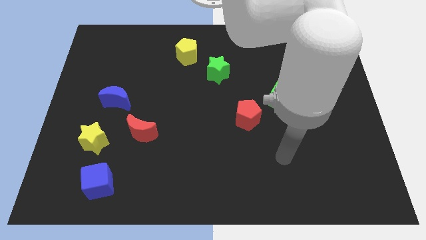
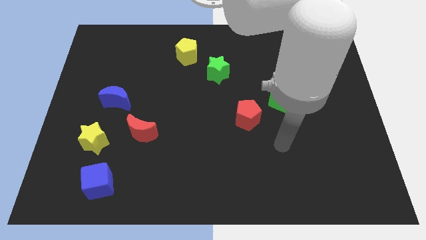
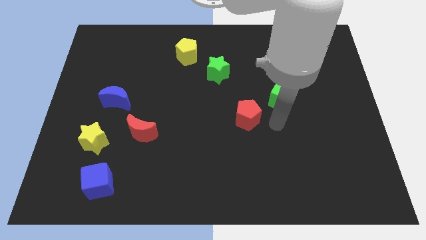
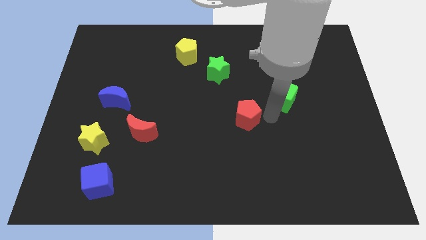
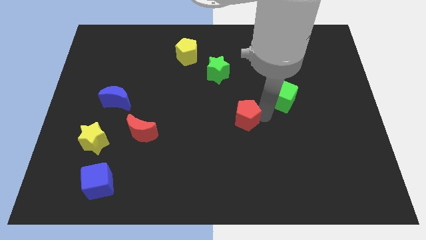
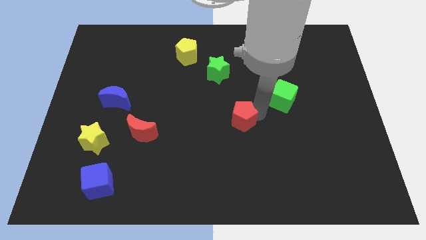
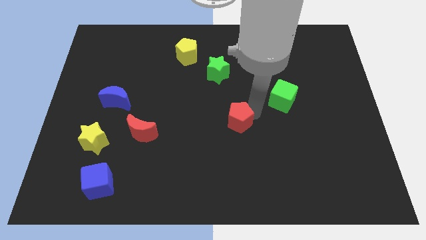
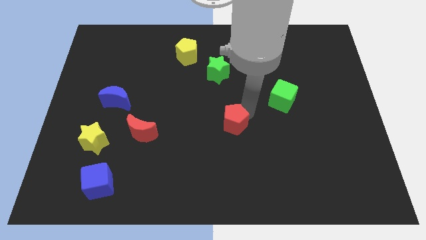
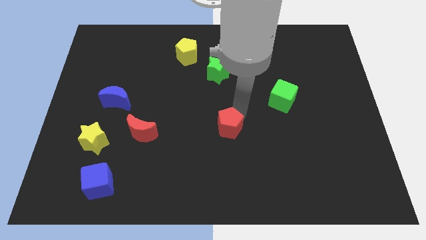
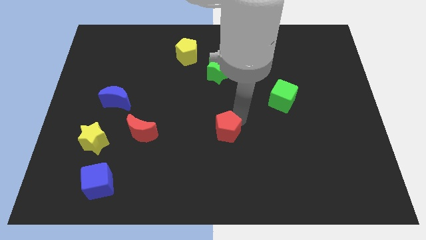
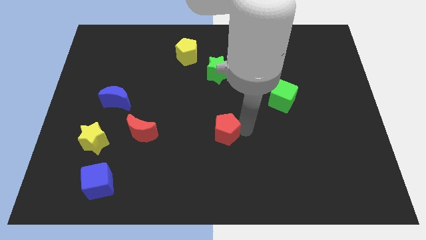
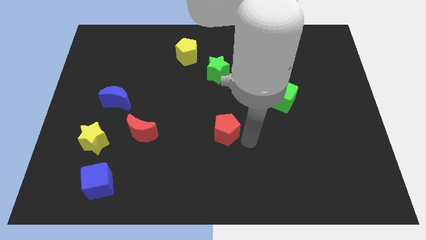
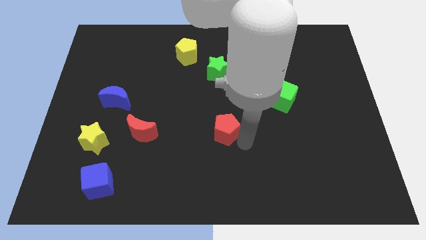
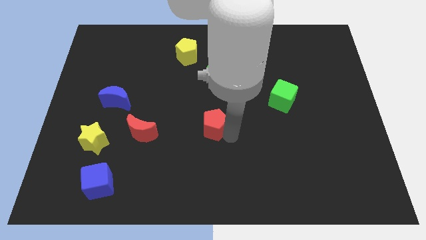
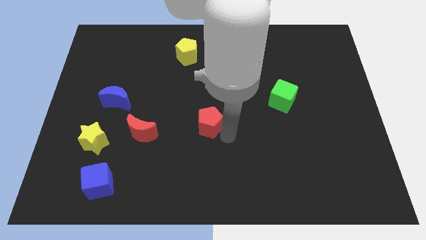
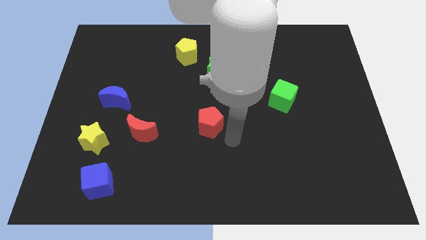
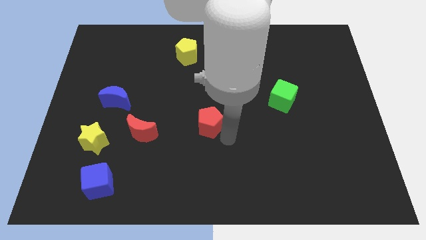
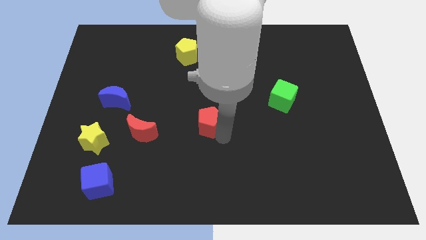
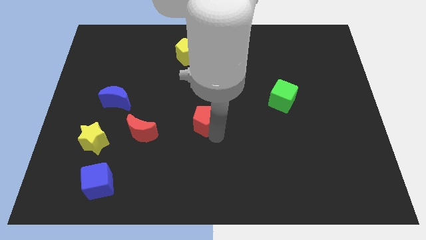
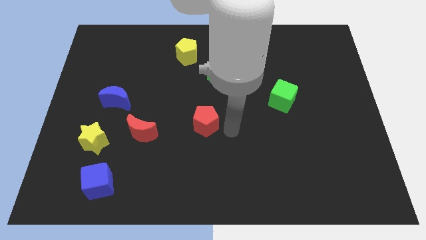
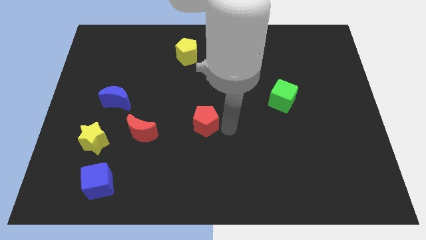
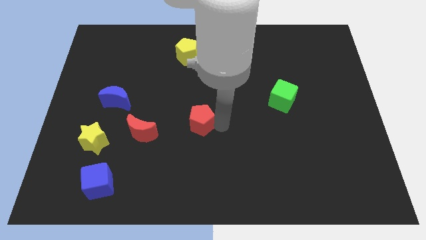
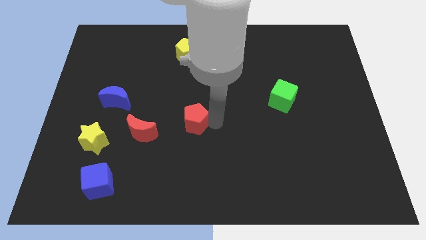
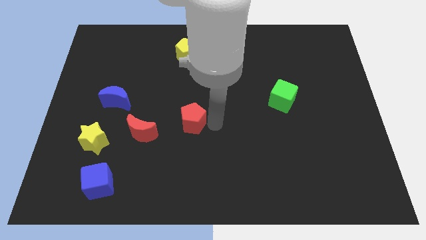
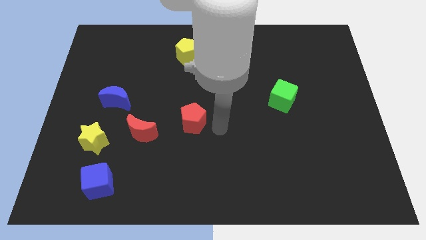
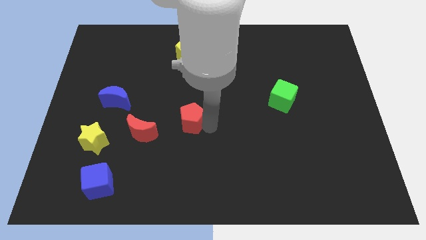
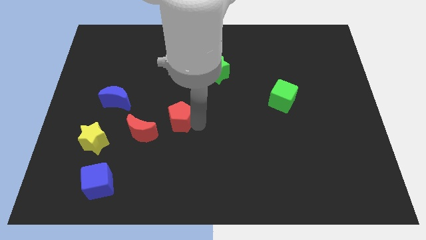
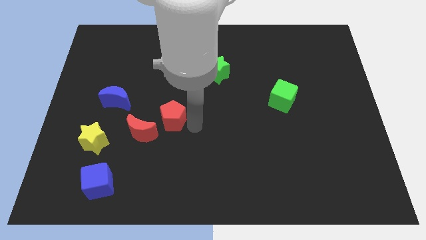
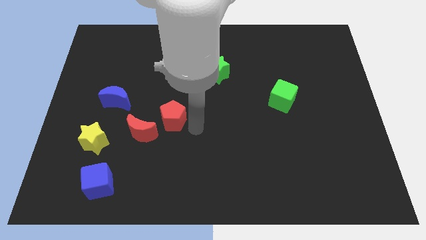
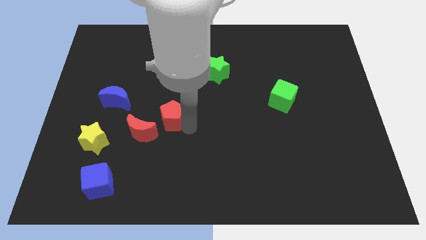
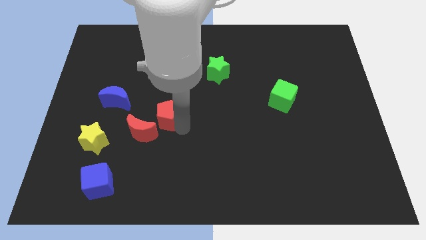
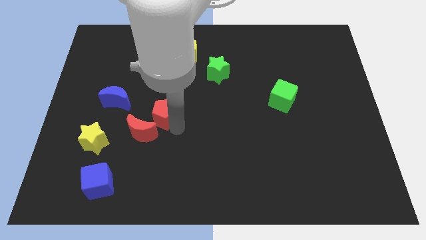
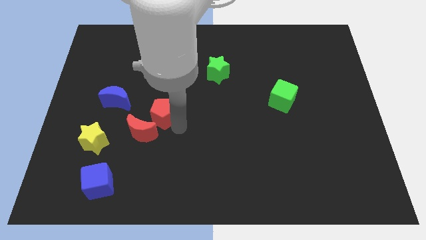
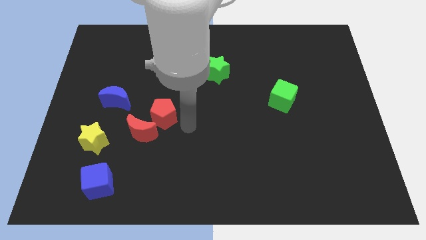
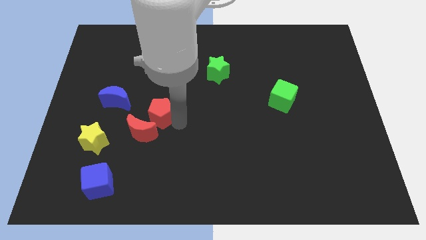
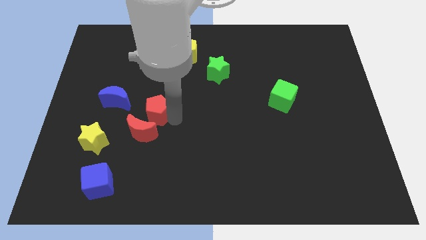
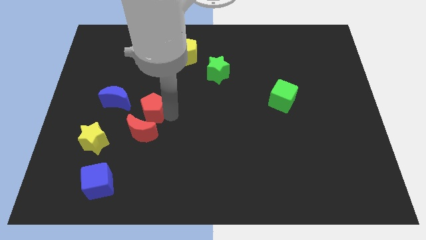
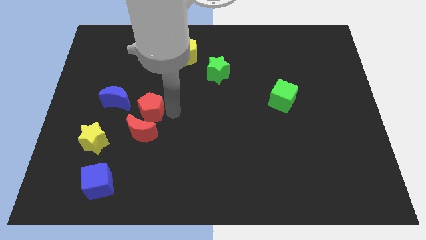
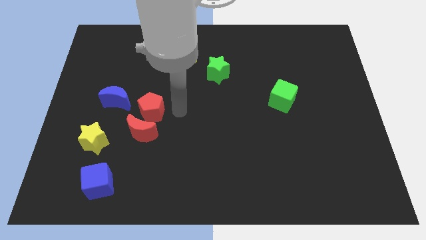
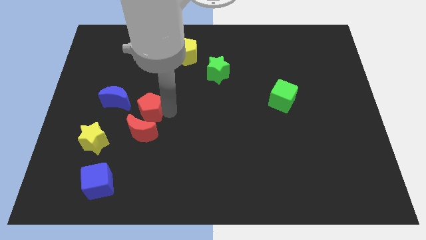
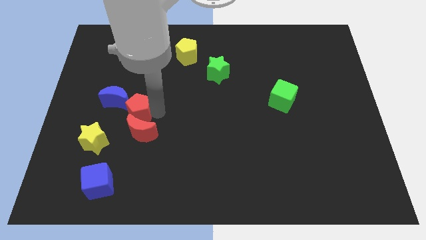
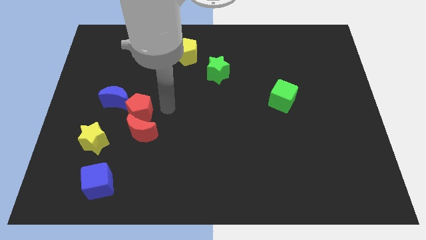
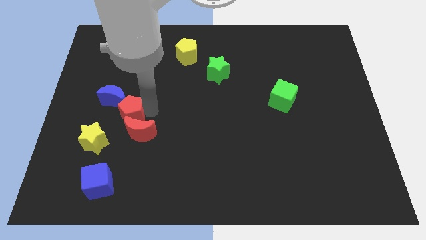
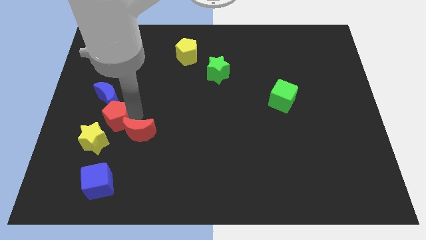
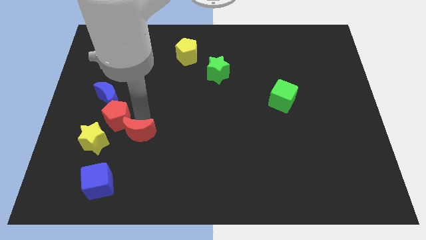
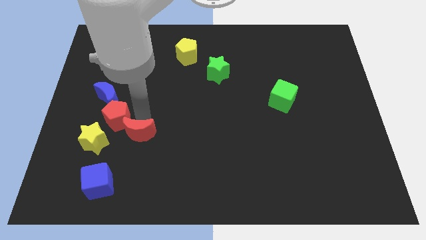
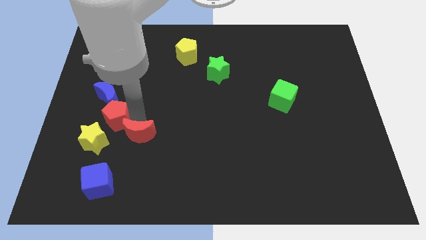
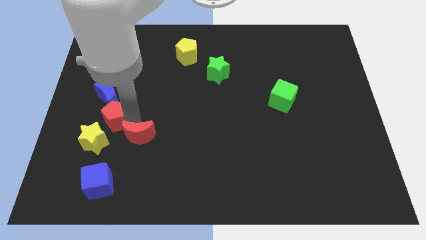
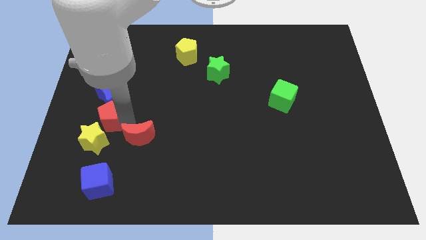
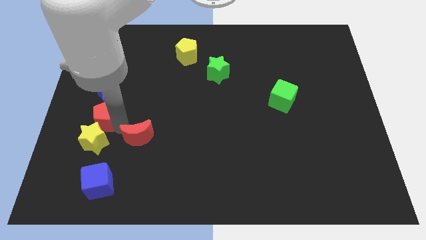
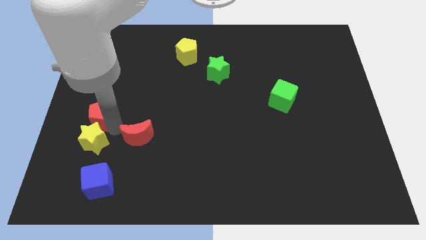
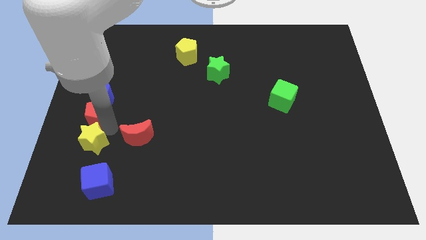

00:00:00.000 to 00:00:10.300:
put the red pentagon to the left side

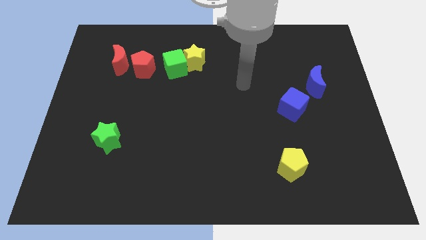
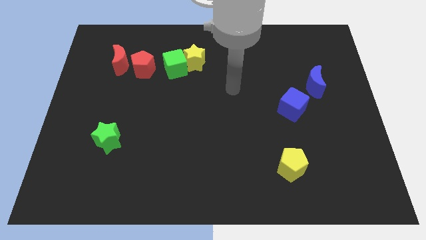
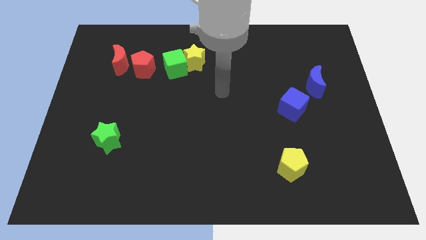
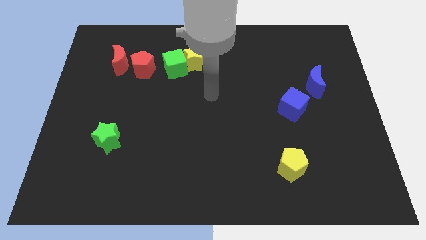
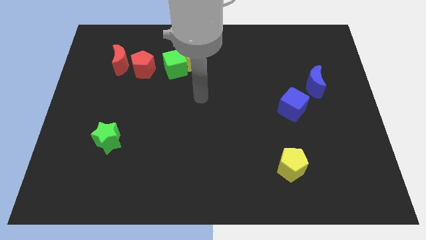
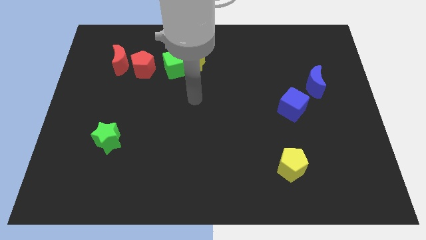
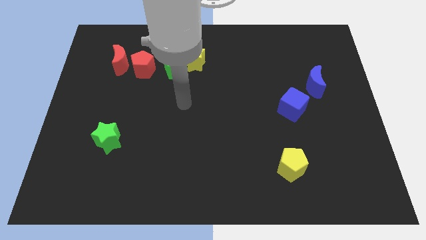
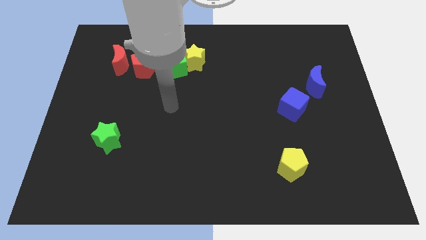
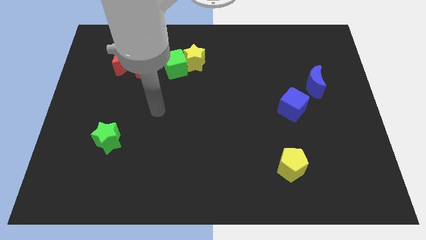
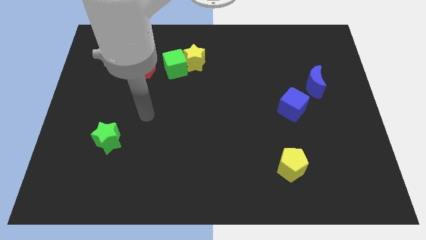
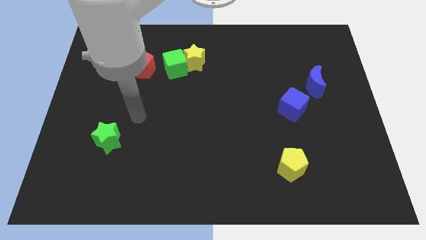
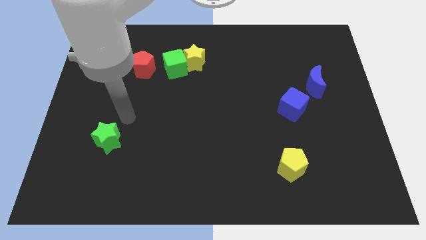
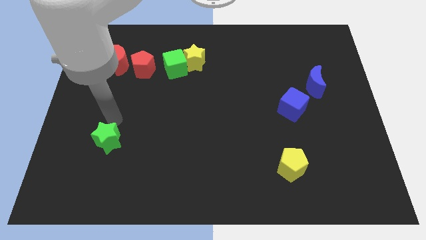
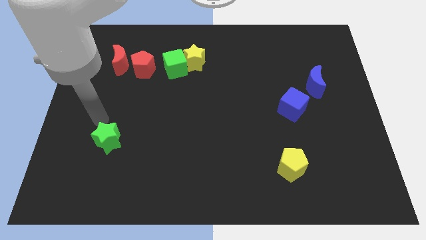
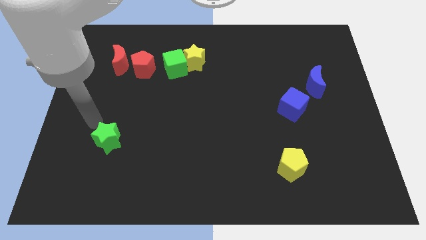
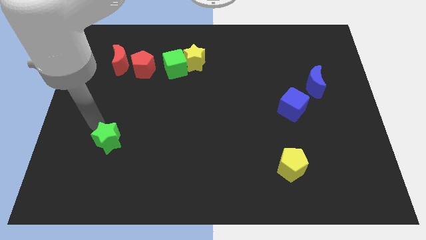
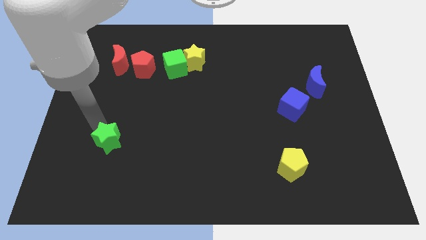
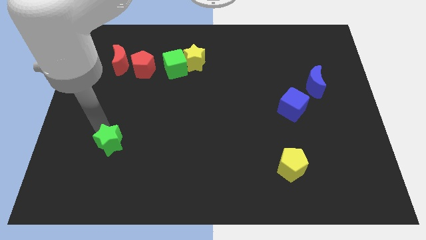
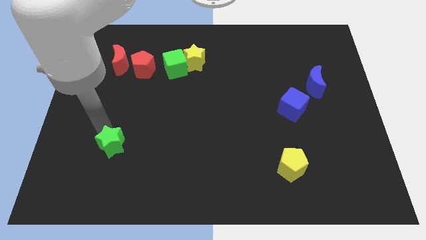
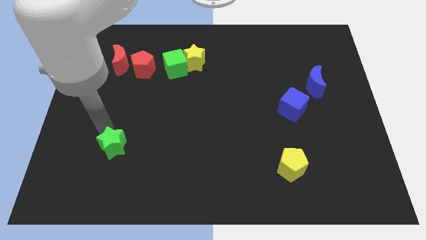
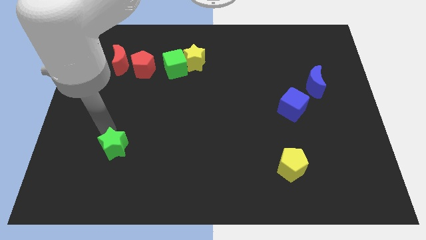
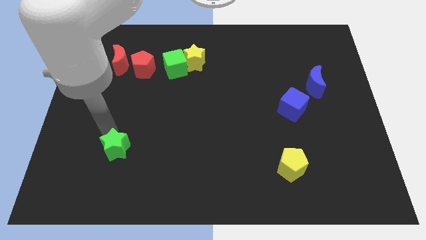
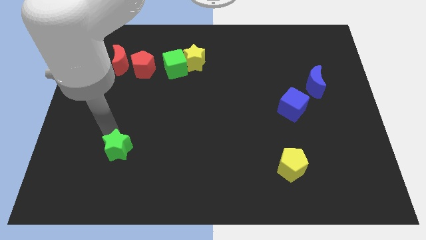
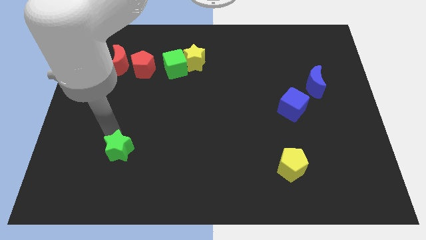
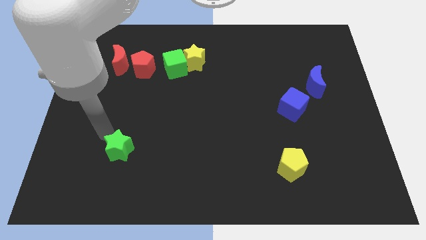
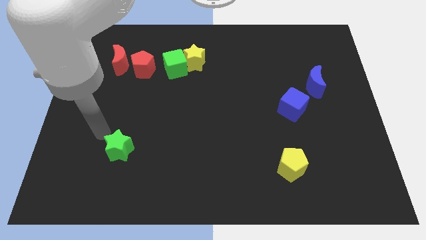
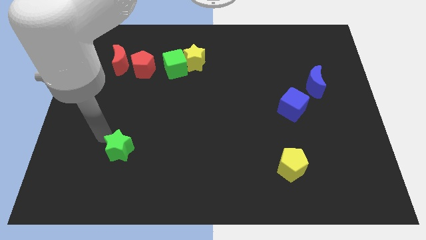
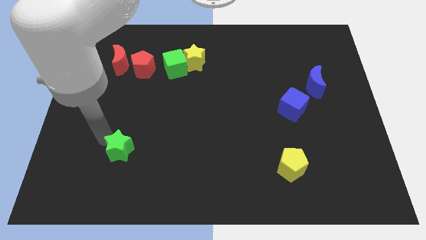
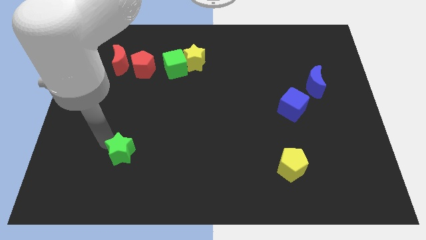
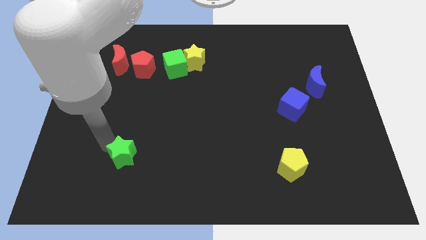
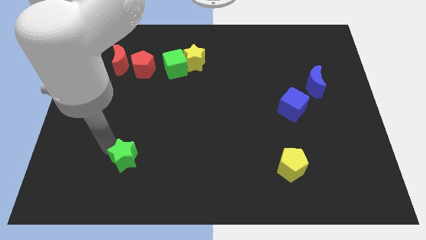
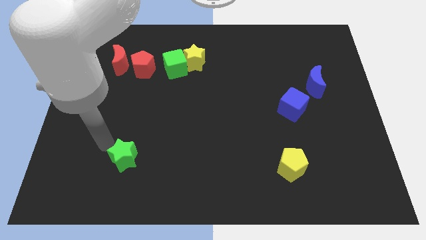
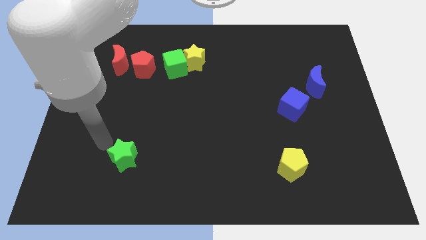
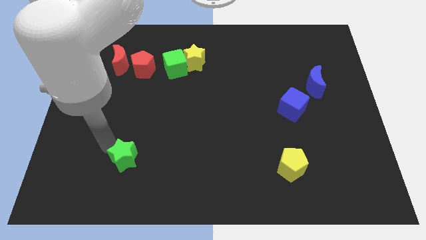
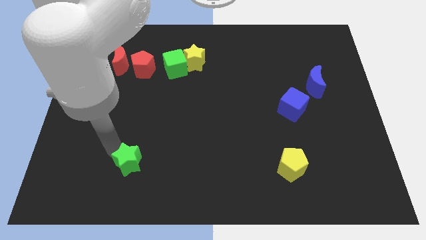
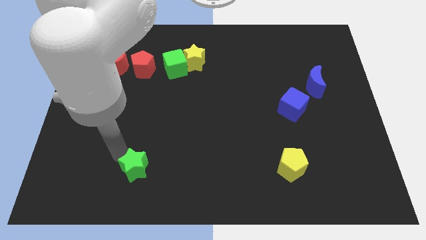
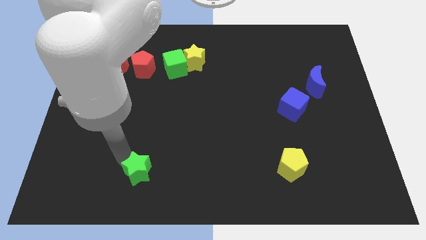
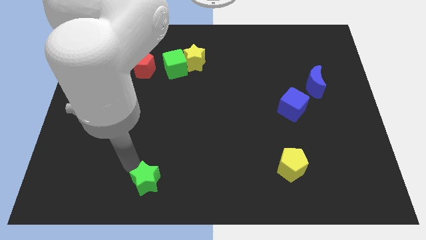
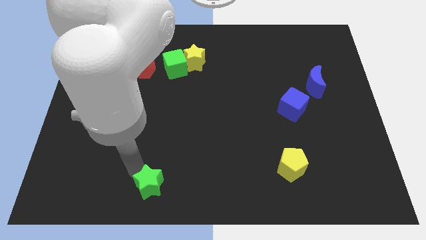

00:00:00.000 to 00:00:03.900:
push the green star to the bottom side
